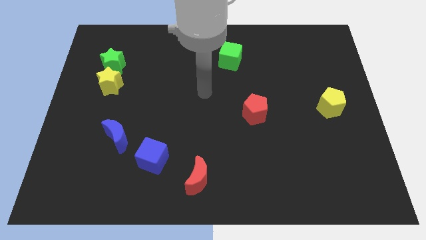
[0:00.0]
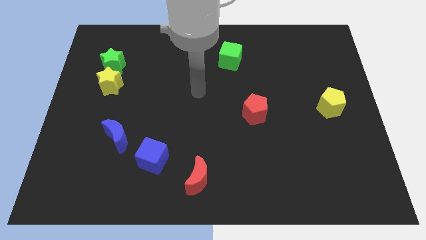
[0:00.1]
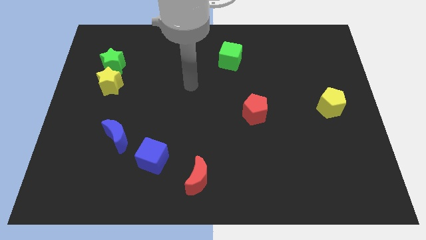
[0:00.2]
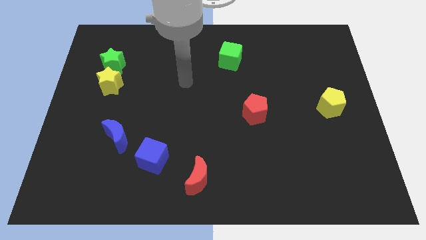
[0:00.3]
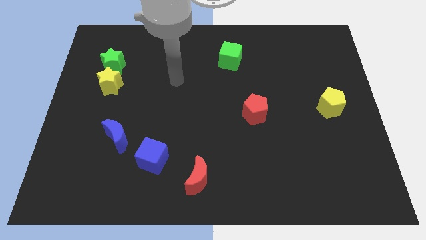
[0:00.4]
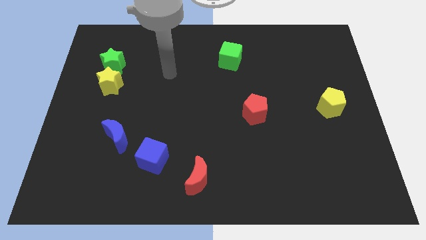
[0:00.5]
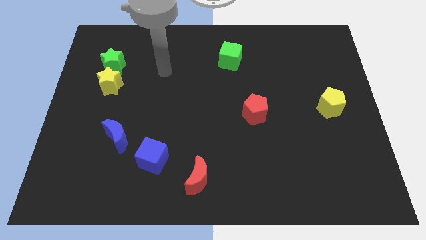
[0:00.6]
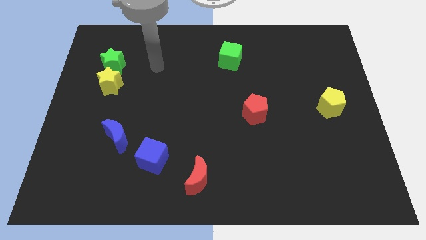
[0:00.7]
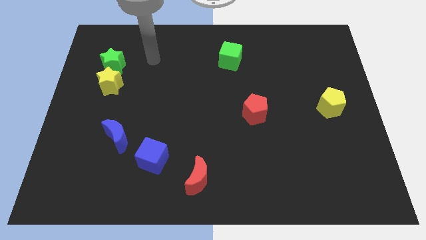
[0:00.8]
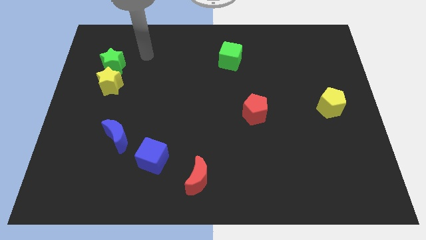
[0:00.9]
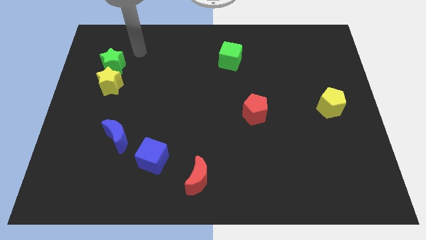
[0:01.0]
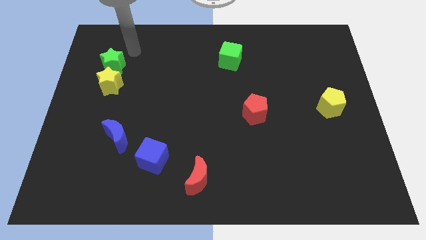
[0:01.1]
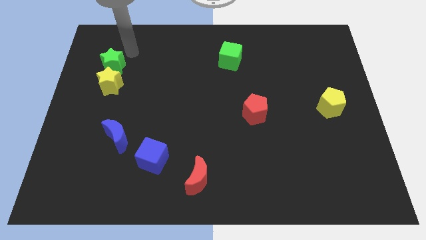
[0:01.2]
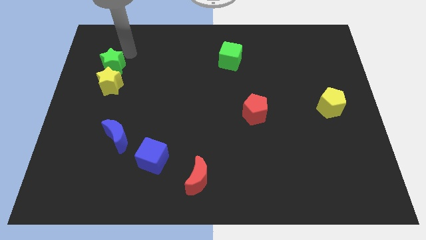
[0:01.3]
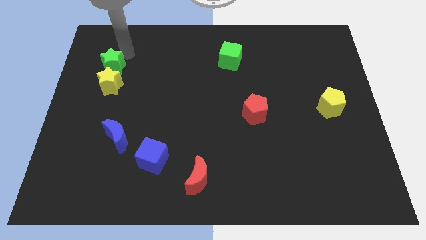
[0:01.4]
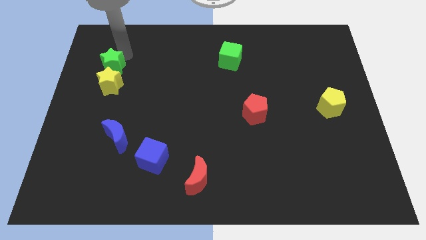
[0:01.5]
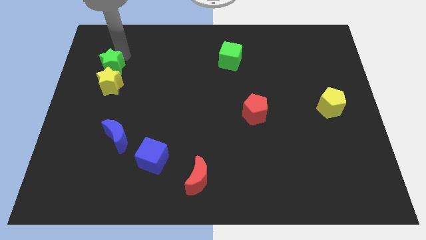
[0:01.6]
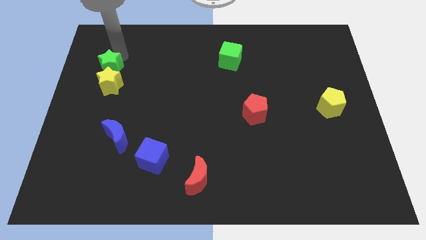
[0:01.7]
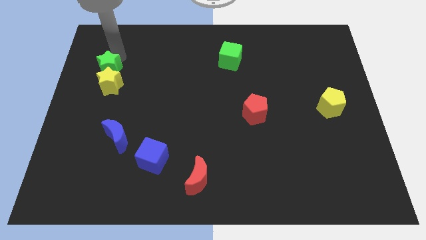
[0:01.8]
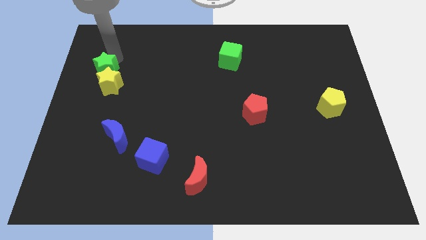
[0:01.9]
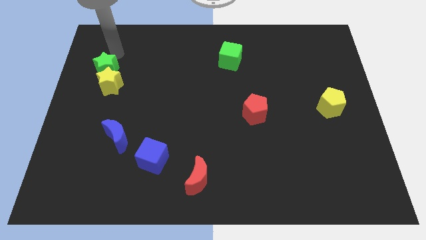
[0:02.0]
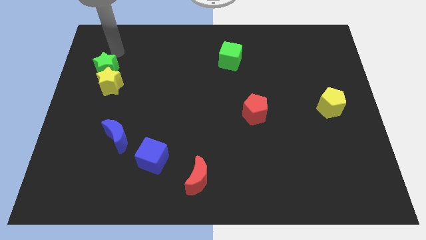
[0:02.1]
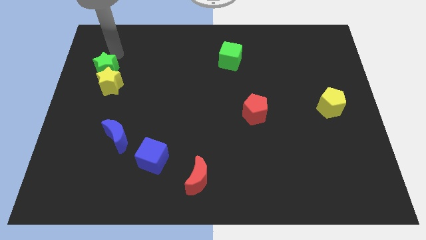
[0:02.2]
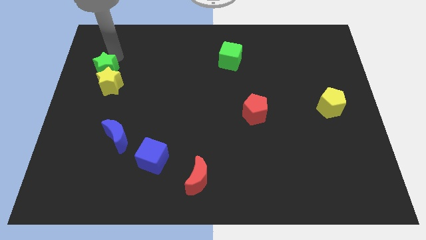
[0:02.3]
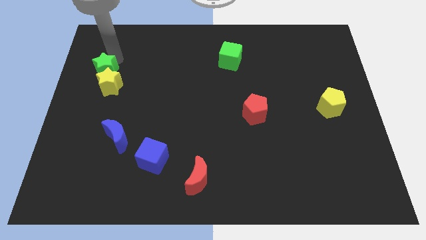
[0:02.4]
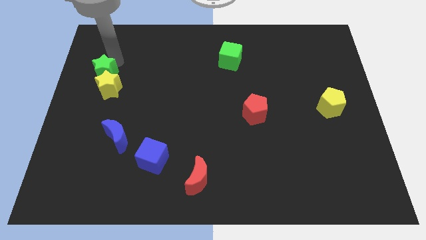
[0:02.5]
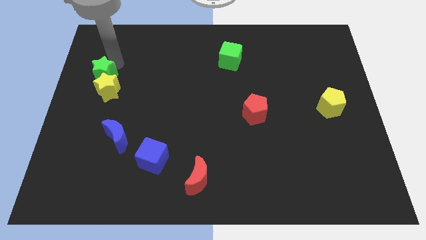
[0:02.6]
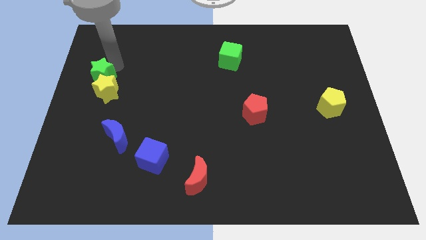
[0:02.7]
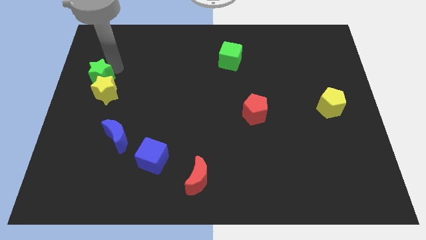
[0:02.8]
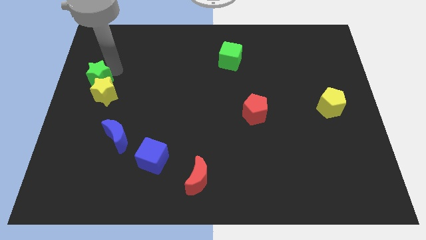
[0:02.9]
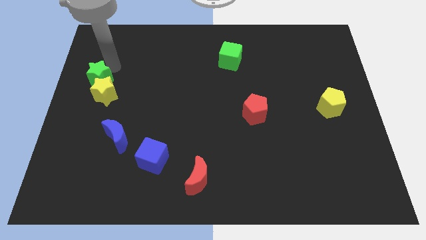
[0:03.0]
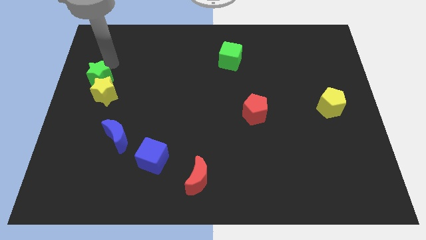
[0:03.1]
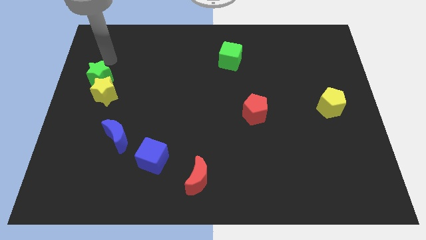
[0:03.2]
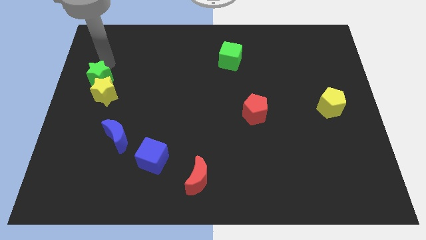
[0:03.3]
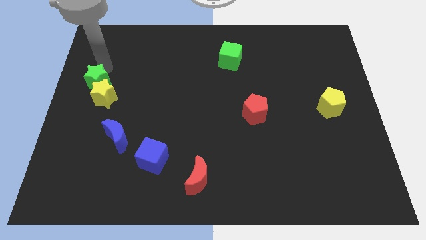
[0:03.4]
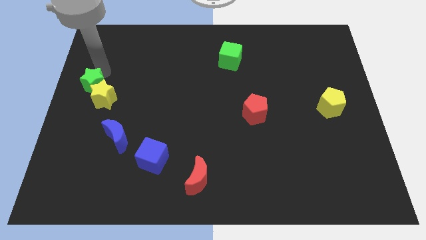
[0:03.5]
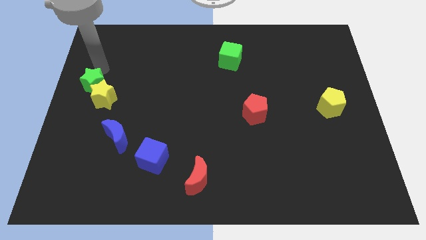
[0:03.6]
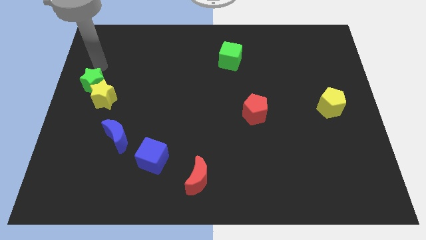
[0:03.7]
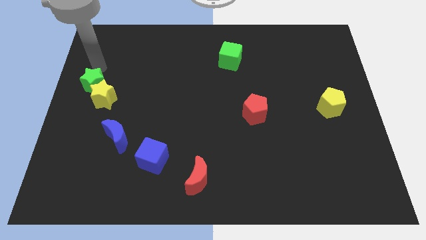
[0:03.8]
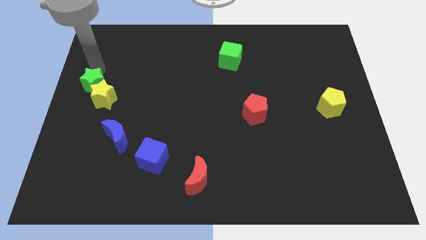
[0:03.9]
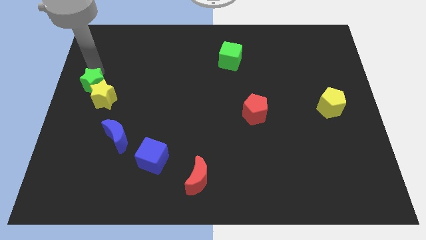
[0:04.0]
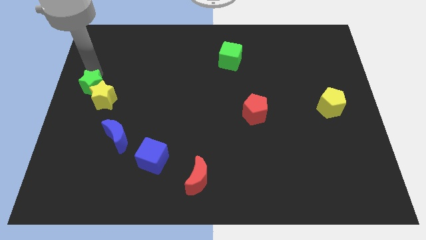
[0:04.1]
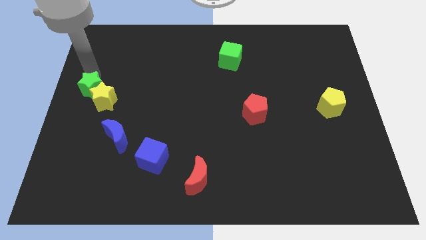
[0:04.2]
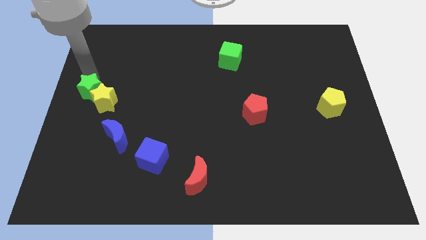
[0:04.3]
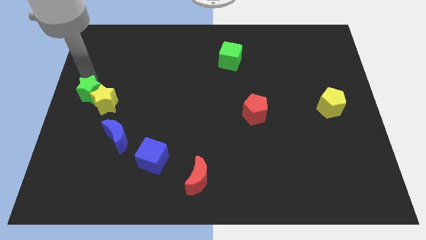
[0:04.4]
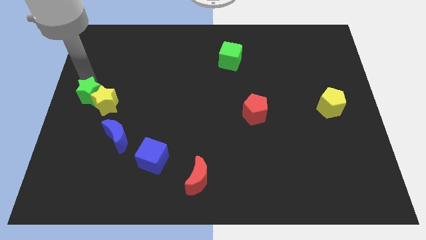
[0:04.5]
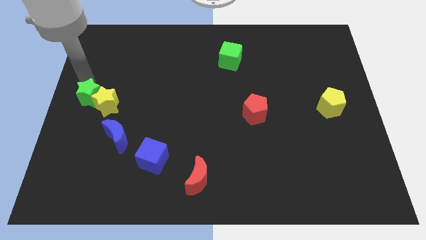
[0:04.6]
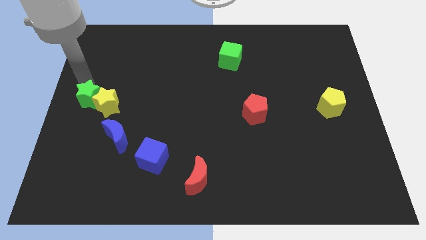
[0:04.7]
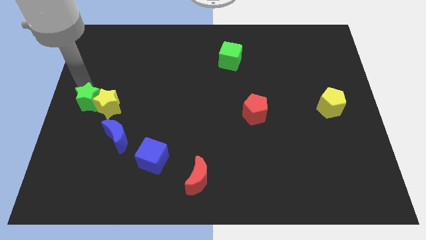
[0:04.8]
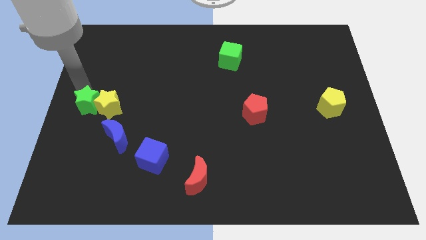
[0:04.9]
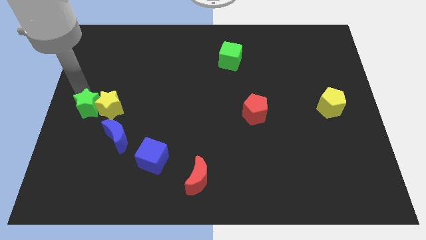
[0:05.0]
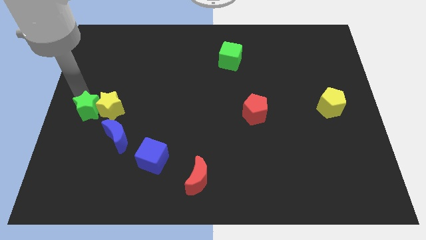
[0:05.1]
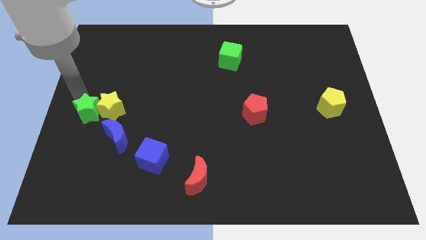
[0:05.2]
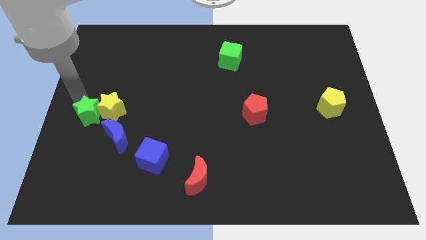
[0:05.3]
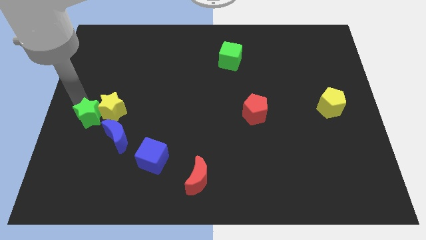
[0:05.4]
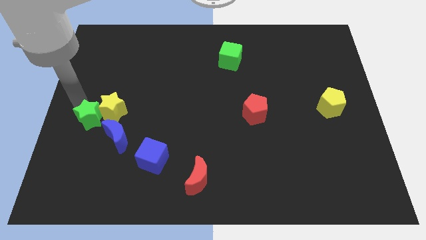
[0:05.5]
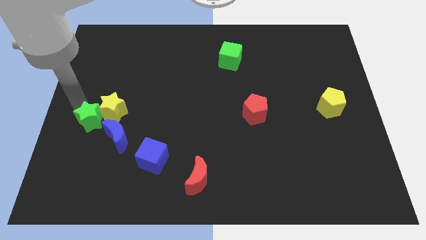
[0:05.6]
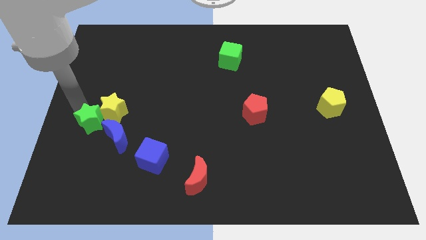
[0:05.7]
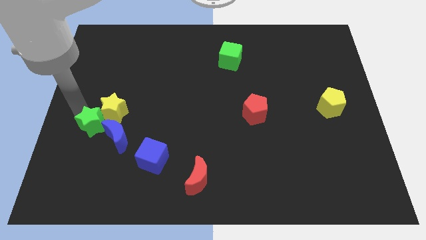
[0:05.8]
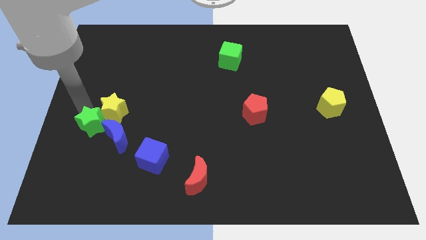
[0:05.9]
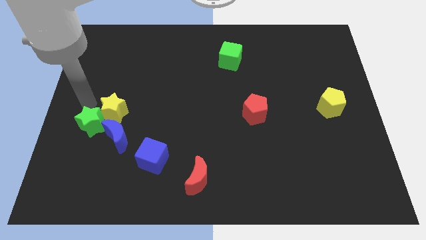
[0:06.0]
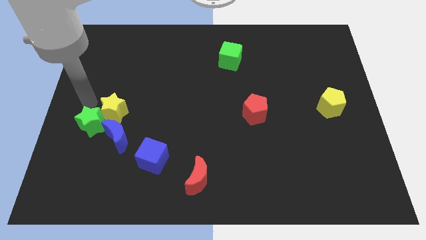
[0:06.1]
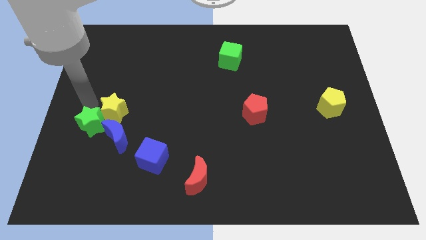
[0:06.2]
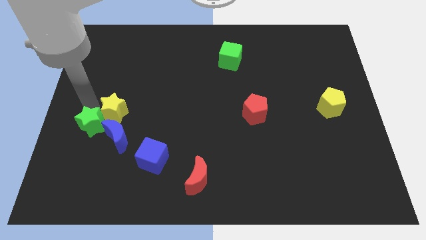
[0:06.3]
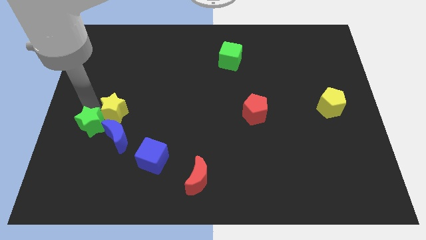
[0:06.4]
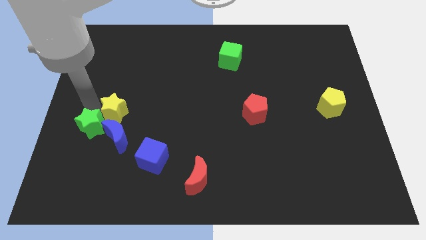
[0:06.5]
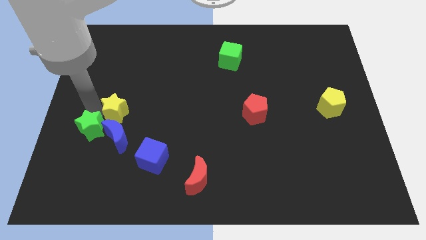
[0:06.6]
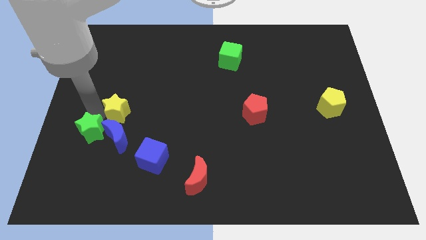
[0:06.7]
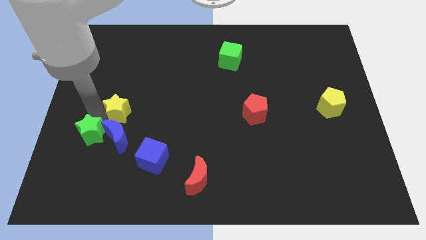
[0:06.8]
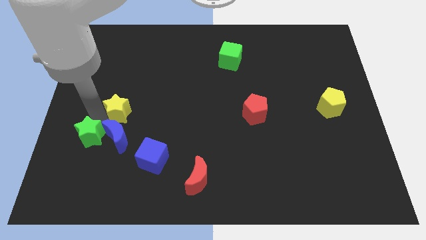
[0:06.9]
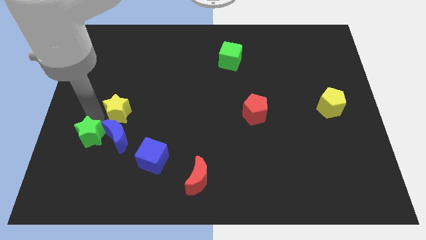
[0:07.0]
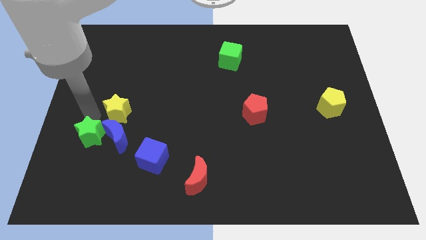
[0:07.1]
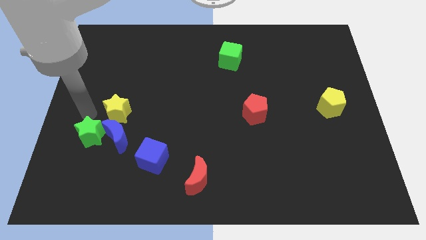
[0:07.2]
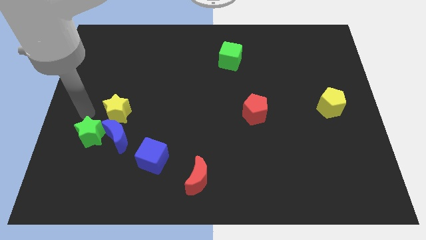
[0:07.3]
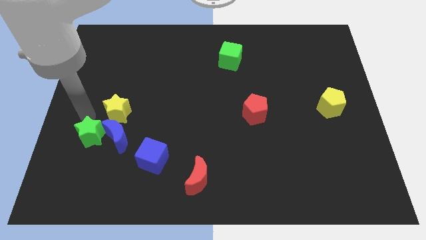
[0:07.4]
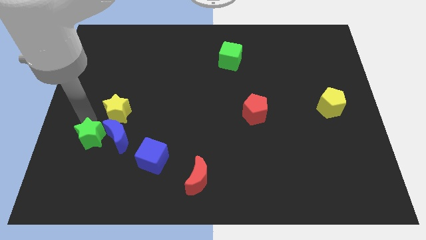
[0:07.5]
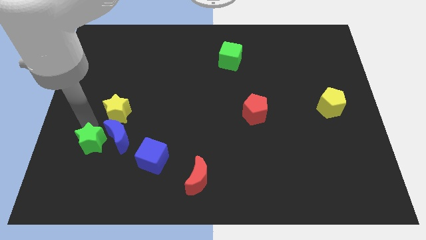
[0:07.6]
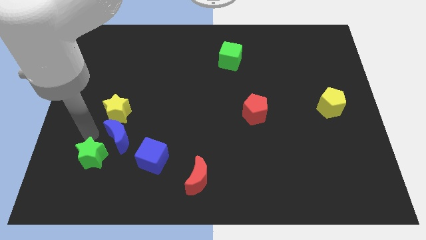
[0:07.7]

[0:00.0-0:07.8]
move the green star below the blue moon
